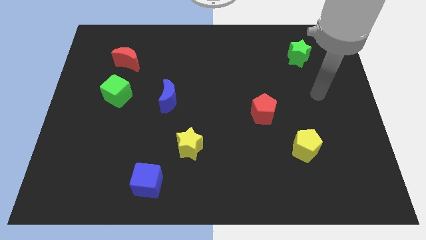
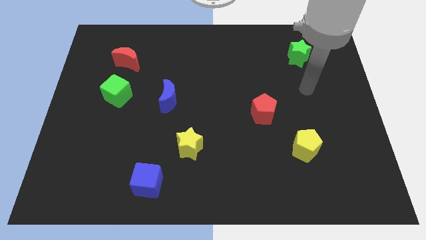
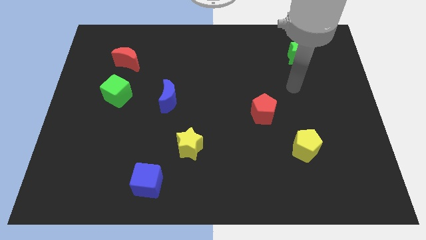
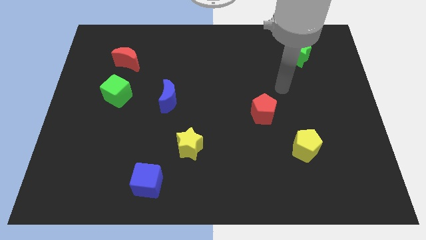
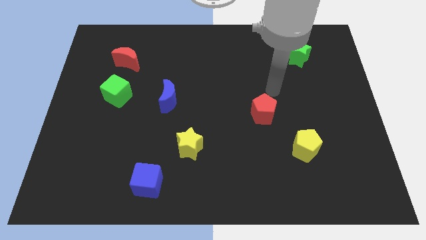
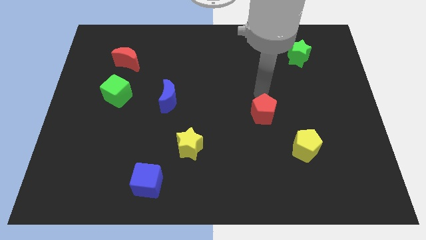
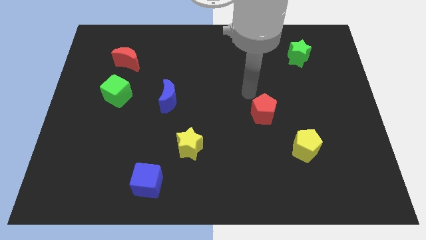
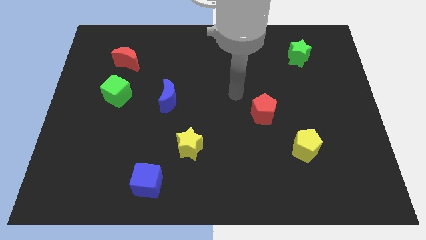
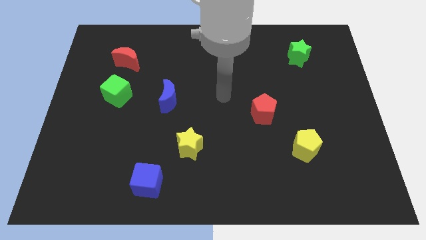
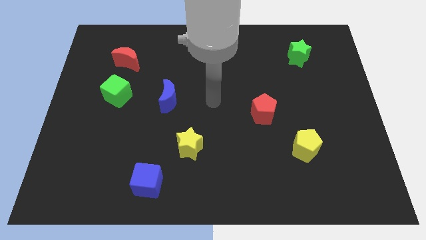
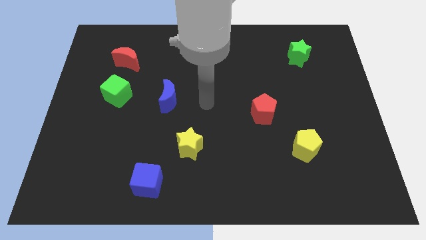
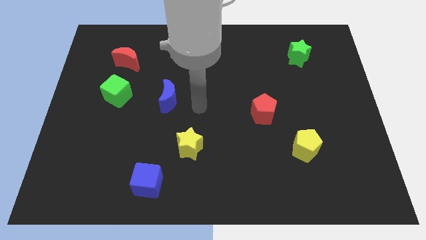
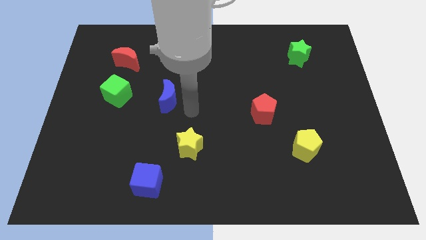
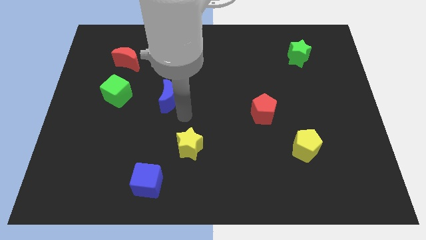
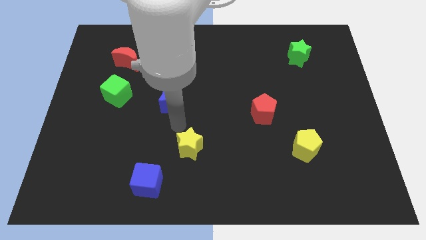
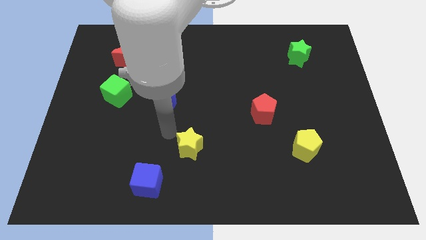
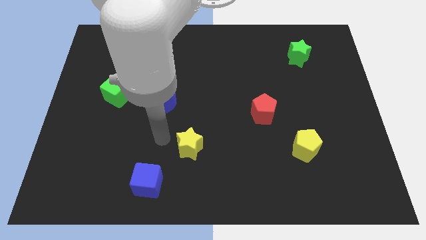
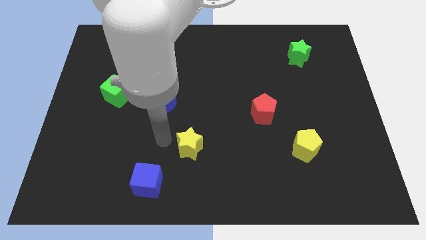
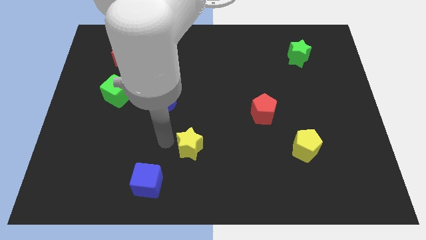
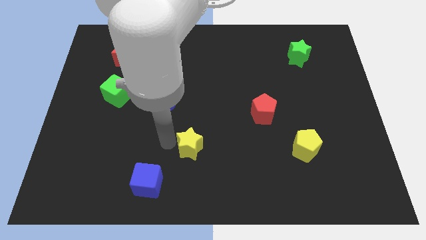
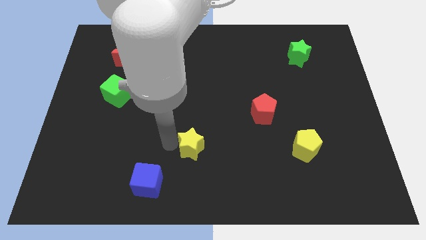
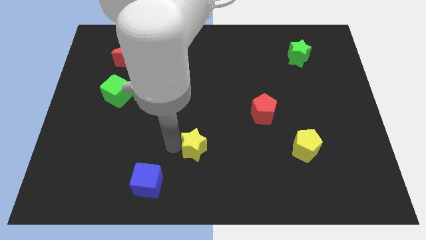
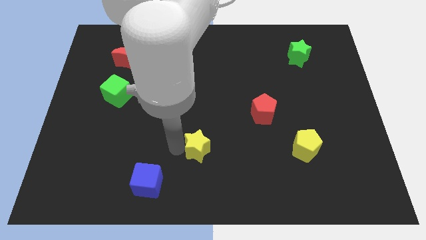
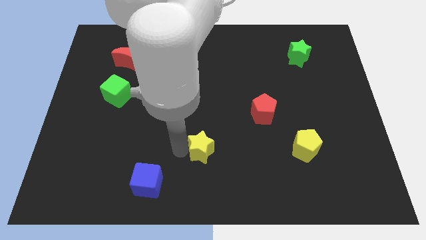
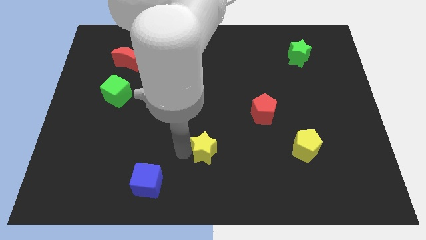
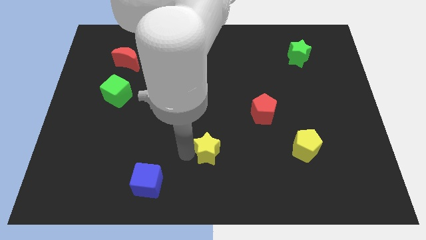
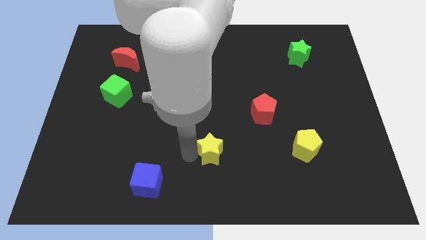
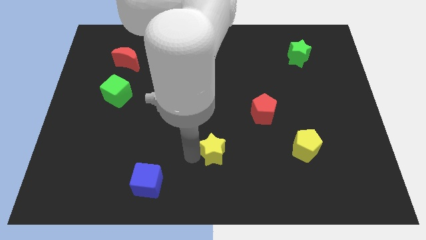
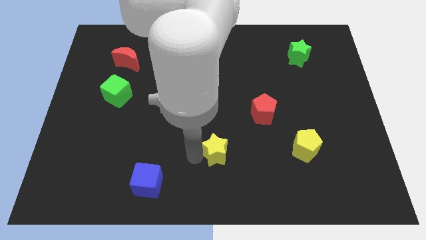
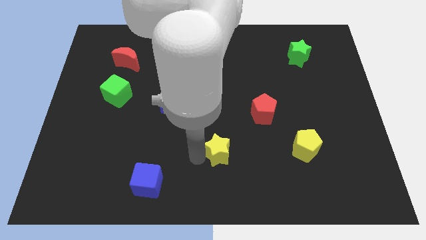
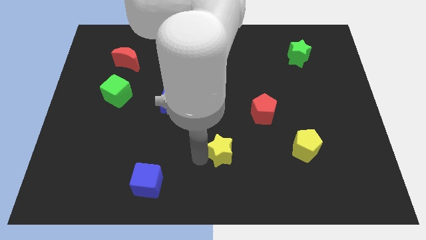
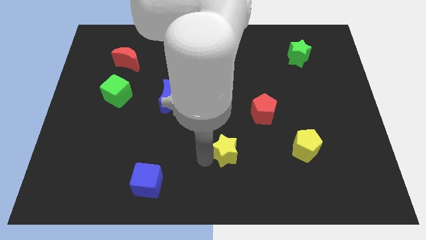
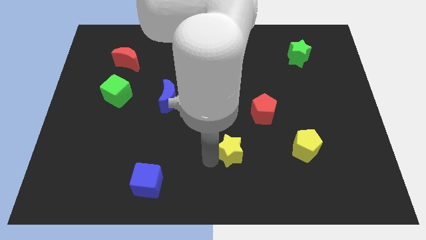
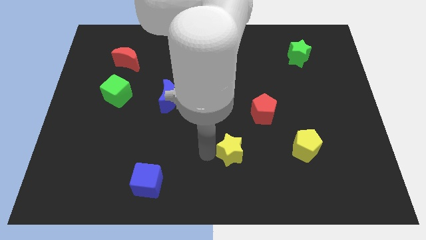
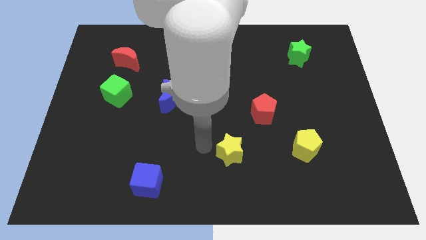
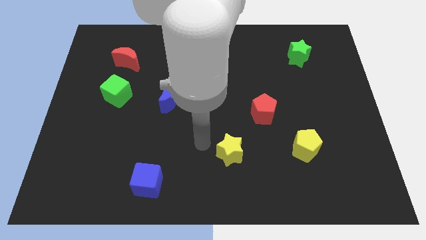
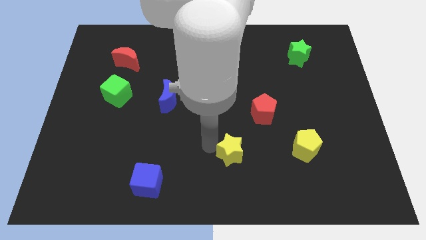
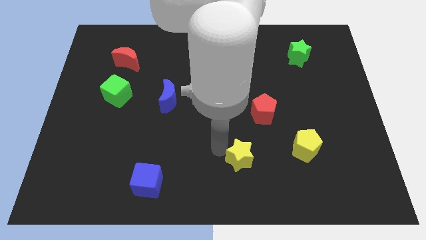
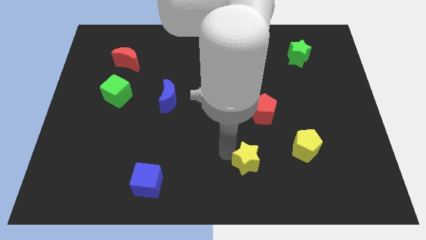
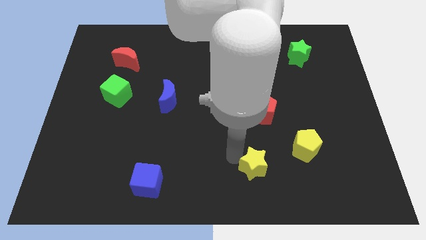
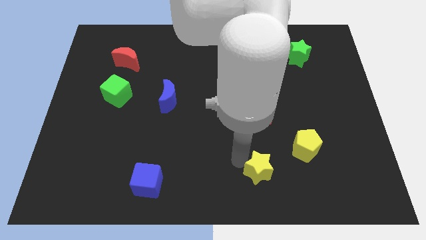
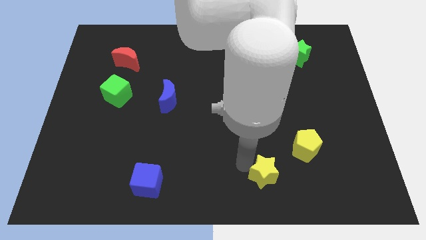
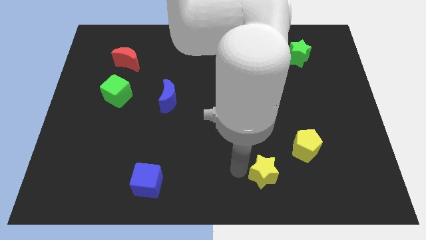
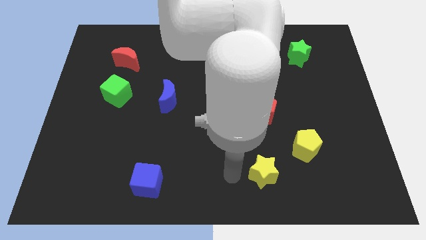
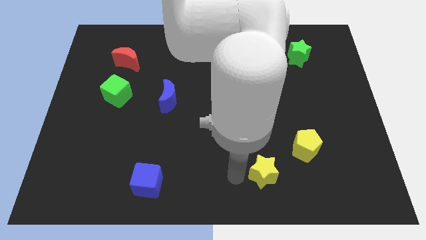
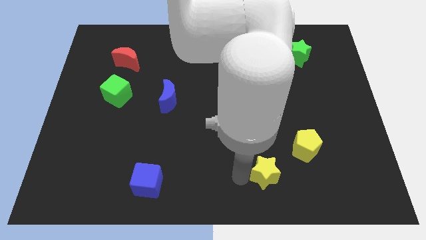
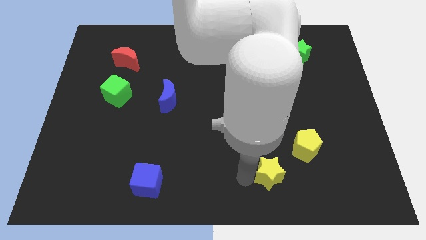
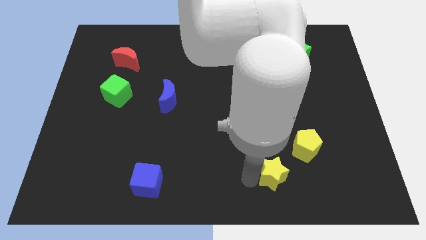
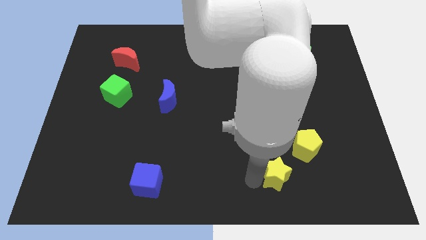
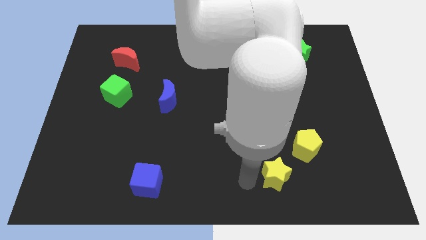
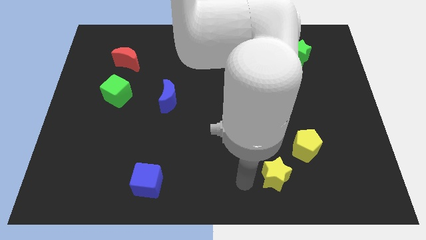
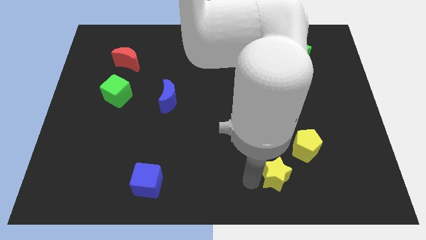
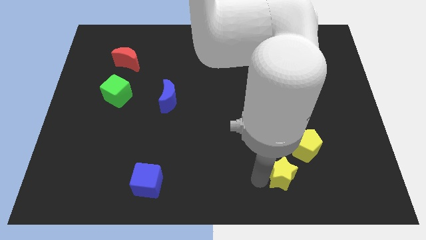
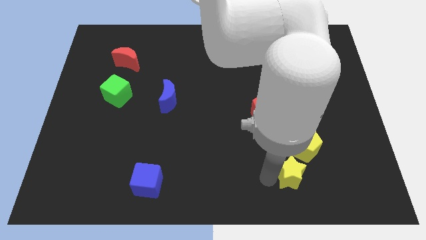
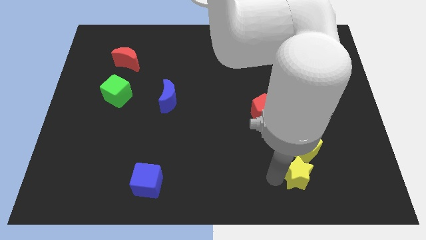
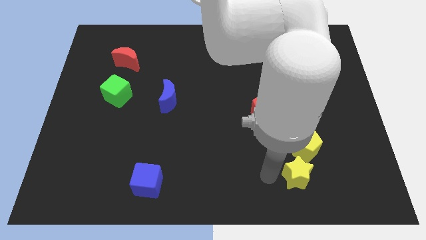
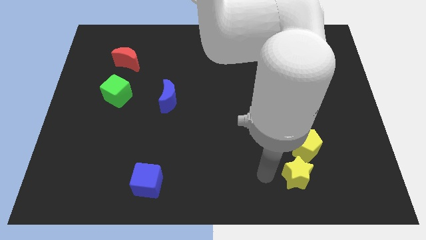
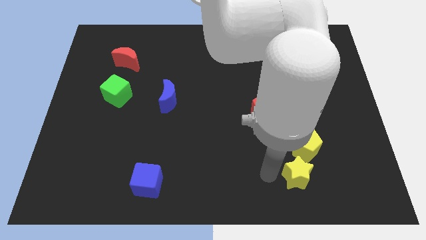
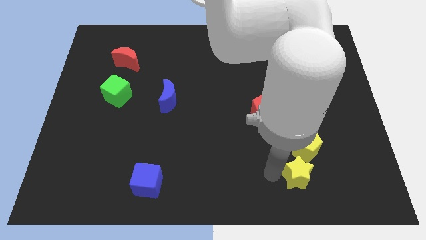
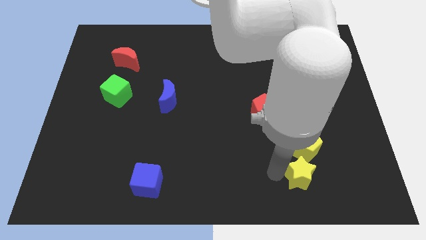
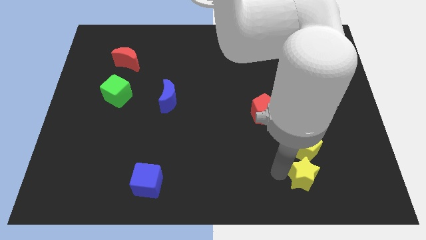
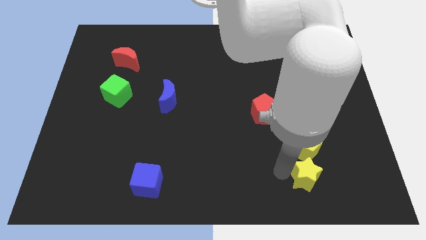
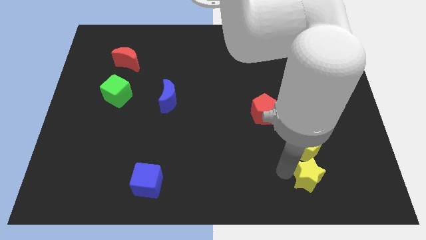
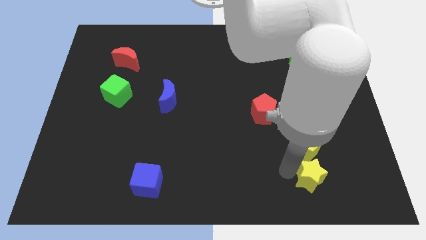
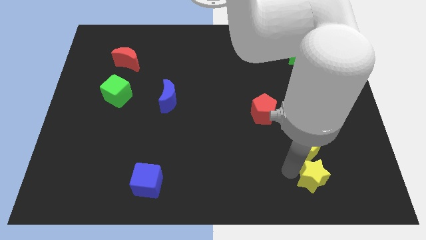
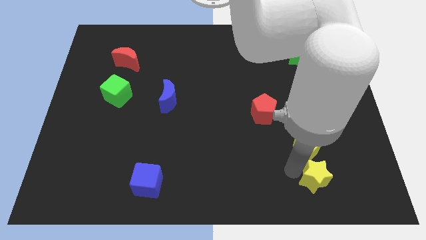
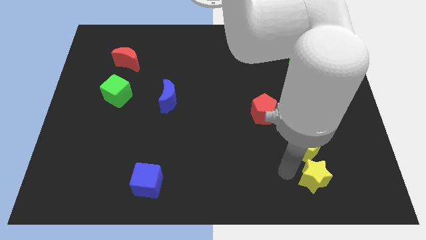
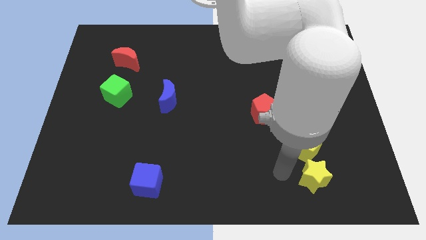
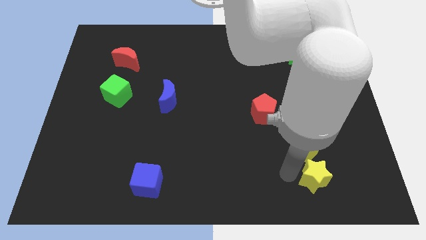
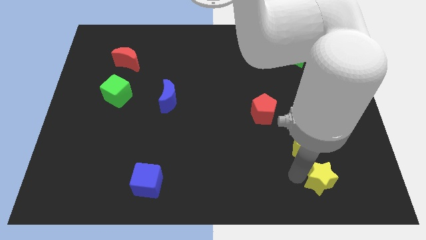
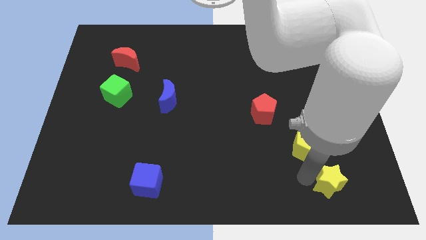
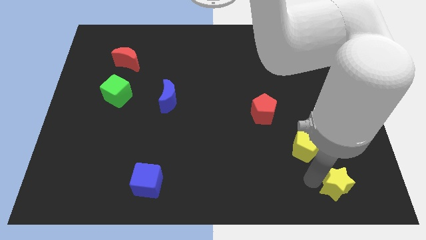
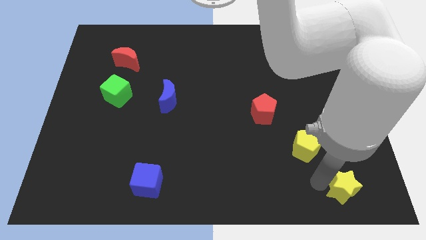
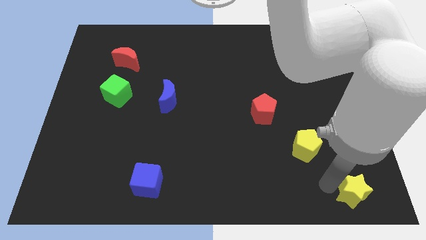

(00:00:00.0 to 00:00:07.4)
slide the yellow star to the lower right corner
